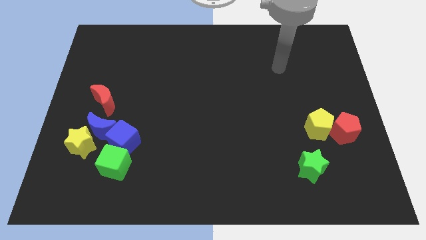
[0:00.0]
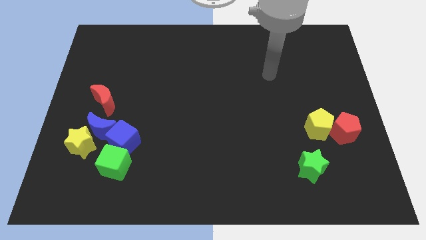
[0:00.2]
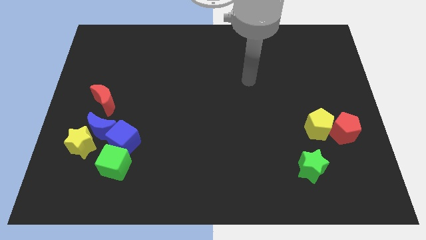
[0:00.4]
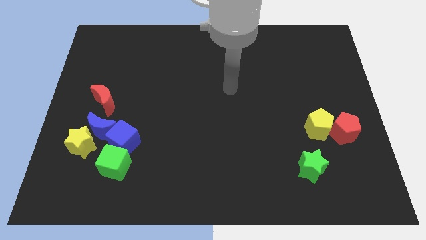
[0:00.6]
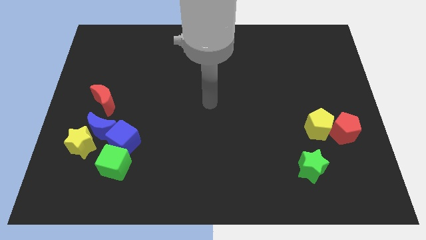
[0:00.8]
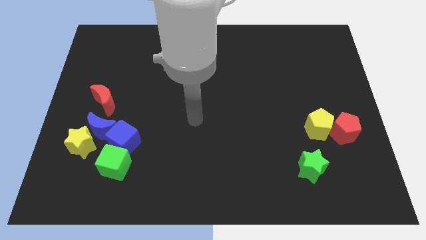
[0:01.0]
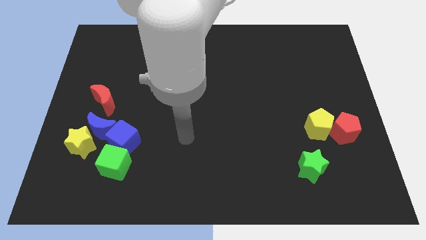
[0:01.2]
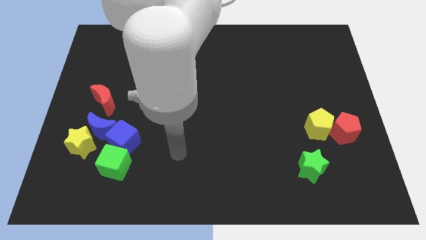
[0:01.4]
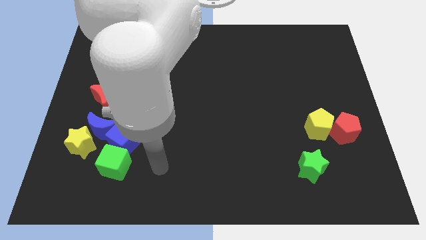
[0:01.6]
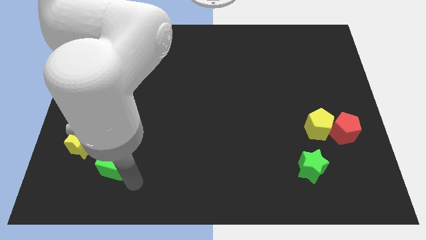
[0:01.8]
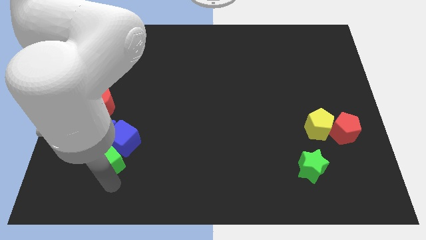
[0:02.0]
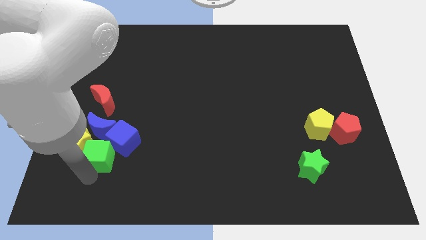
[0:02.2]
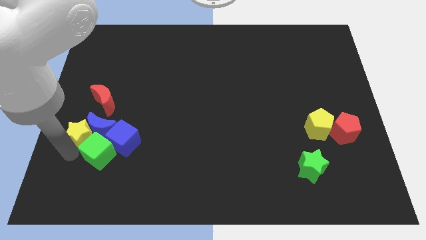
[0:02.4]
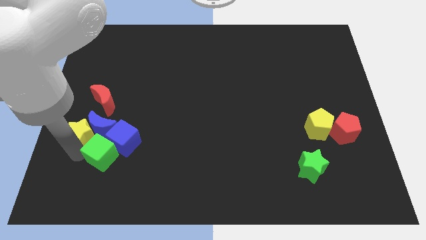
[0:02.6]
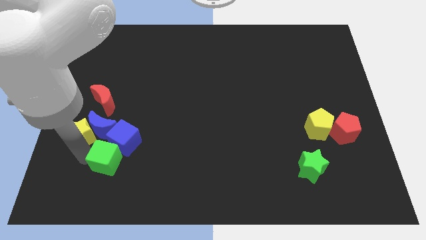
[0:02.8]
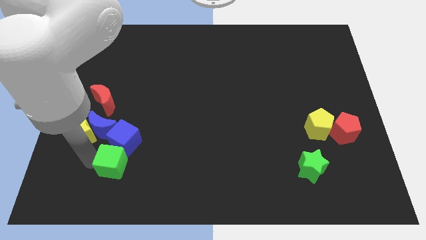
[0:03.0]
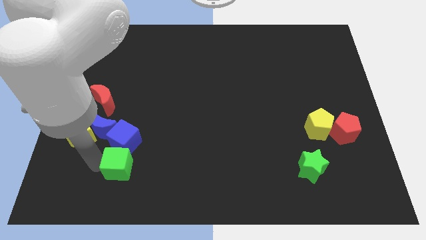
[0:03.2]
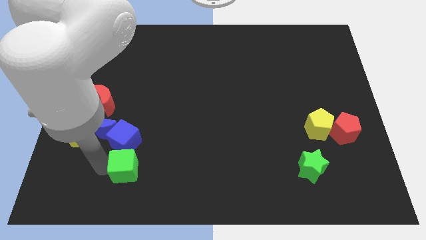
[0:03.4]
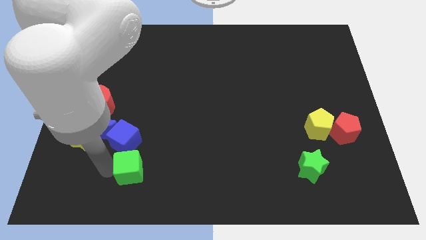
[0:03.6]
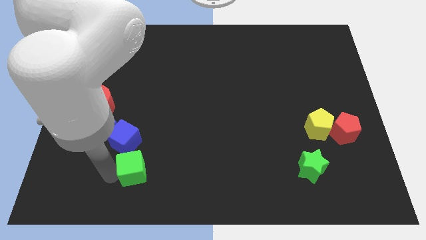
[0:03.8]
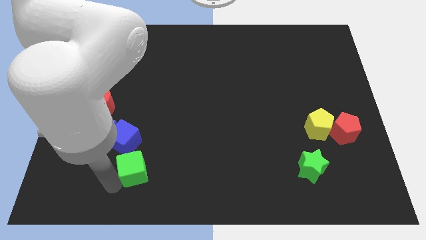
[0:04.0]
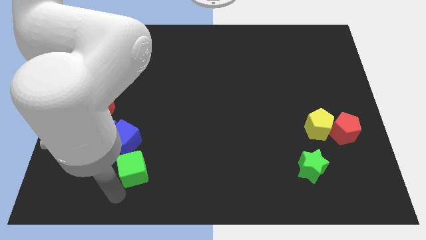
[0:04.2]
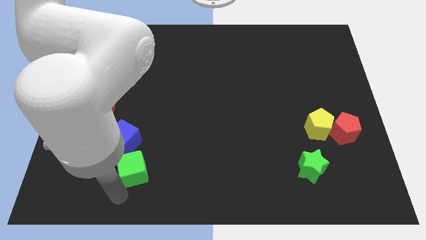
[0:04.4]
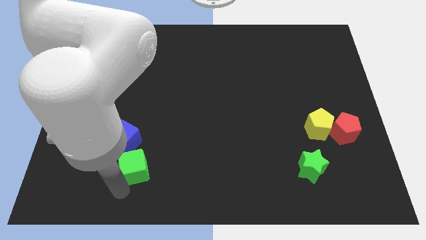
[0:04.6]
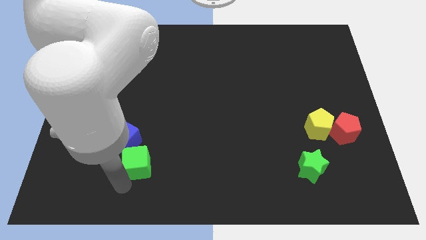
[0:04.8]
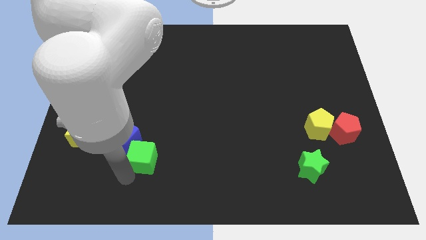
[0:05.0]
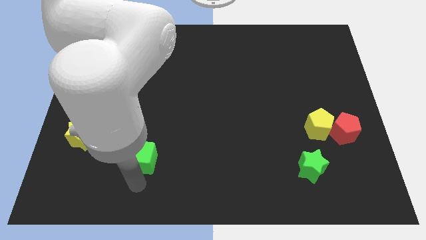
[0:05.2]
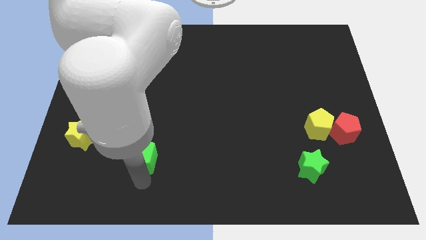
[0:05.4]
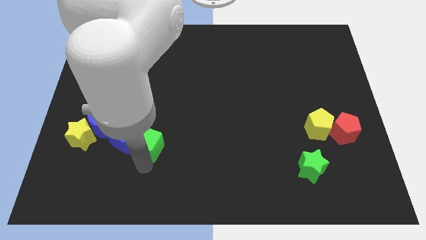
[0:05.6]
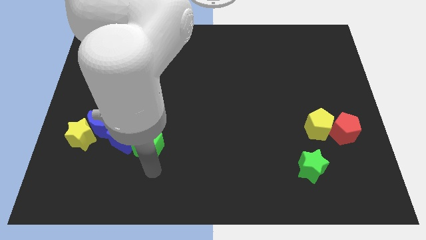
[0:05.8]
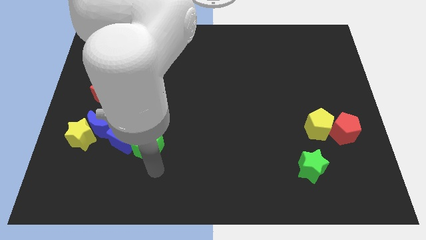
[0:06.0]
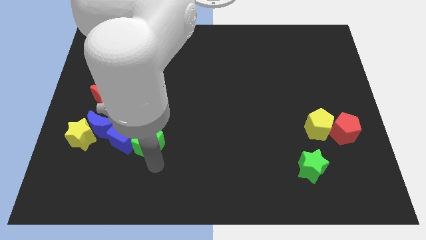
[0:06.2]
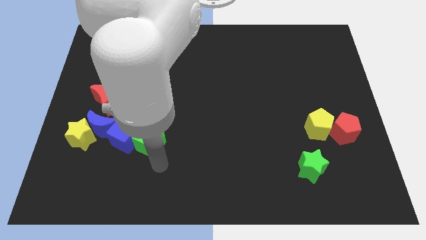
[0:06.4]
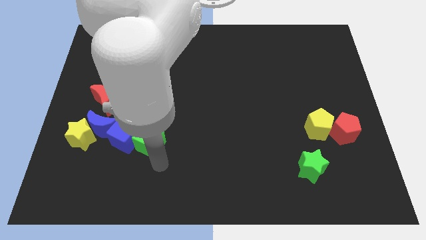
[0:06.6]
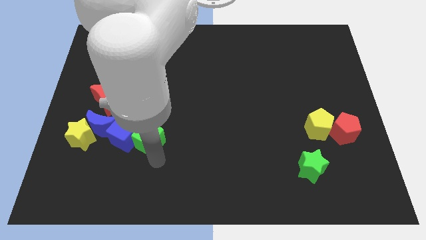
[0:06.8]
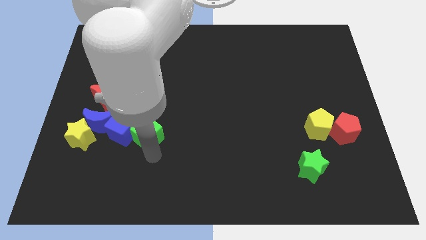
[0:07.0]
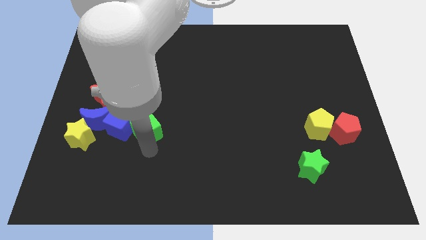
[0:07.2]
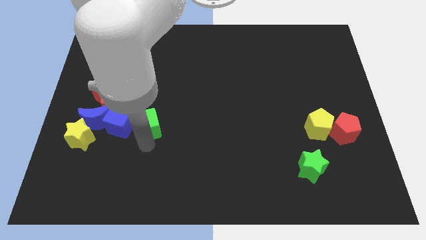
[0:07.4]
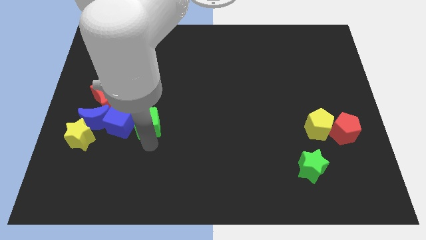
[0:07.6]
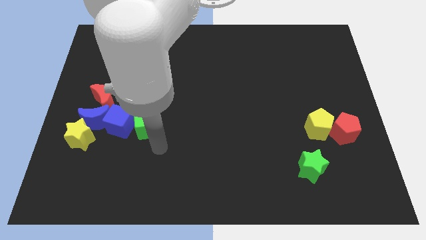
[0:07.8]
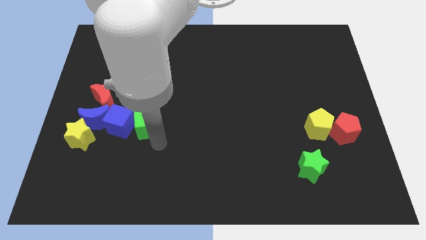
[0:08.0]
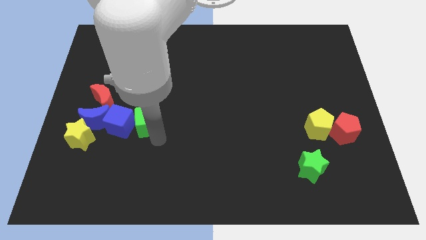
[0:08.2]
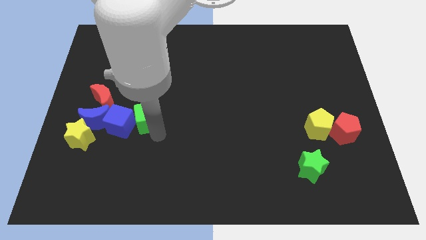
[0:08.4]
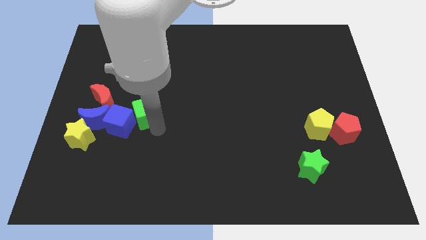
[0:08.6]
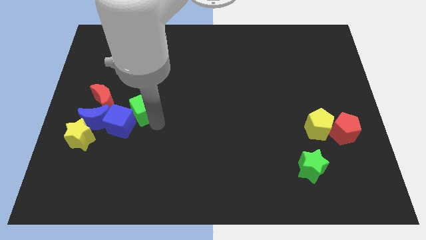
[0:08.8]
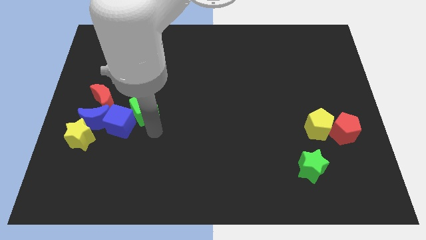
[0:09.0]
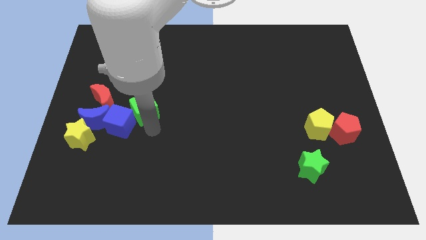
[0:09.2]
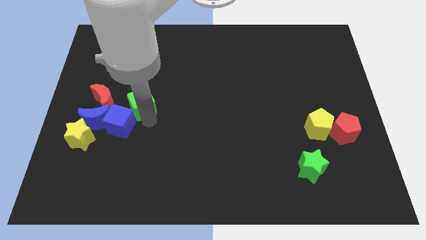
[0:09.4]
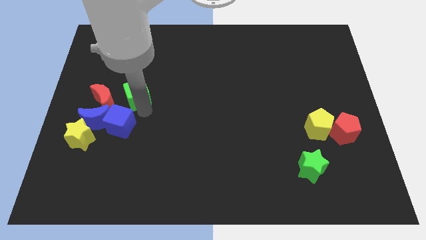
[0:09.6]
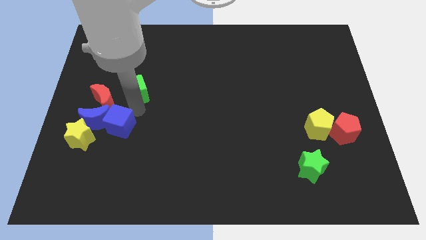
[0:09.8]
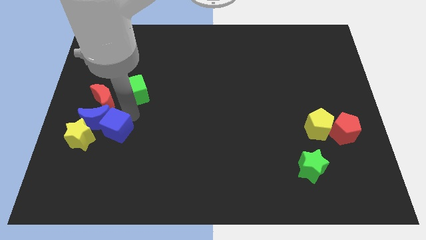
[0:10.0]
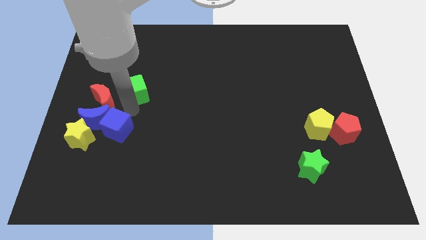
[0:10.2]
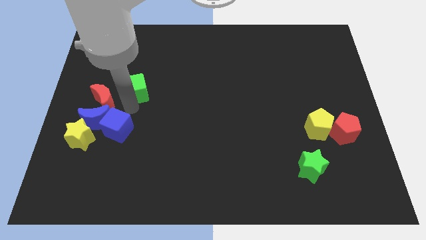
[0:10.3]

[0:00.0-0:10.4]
push the green cube upwards

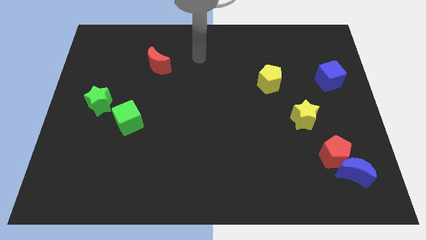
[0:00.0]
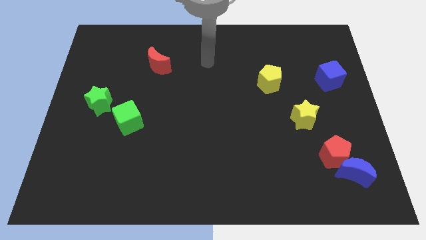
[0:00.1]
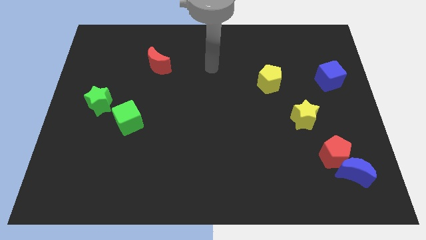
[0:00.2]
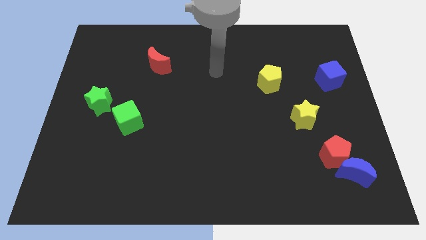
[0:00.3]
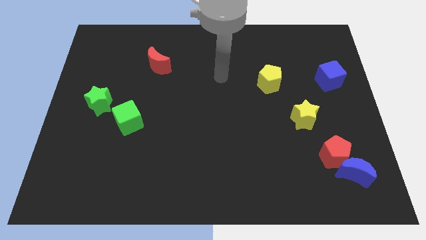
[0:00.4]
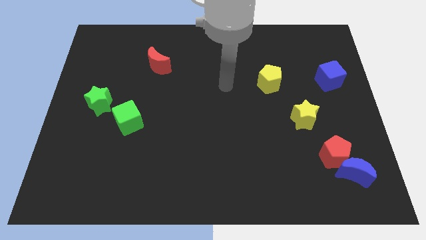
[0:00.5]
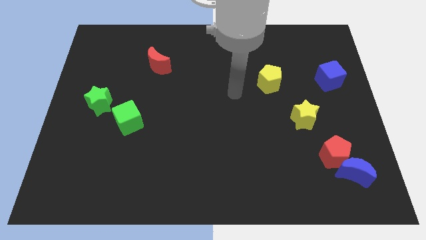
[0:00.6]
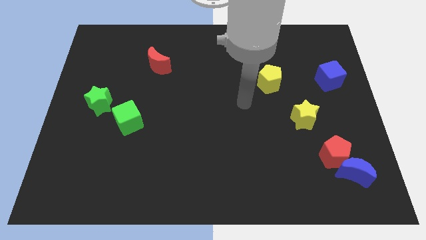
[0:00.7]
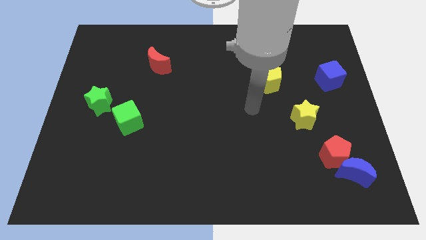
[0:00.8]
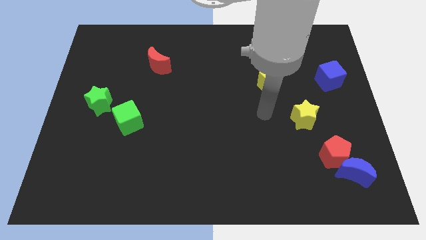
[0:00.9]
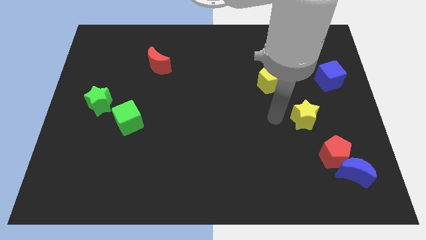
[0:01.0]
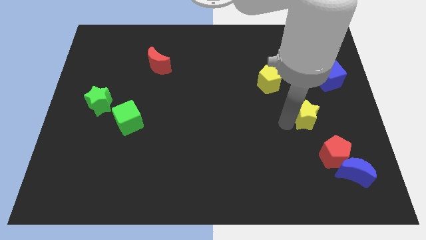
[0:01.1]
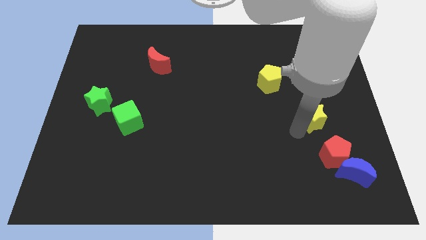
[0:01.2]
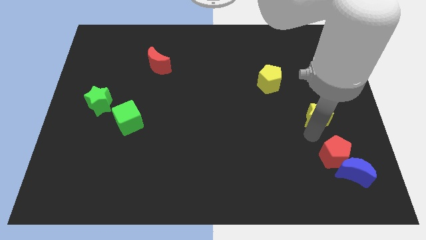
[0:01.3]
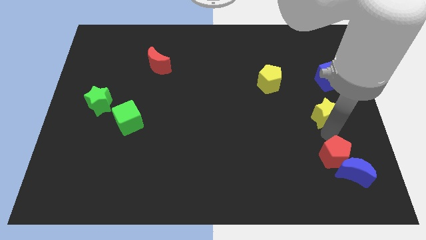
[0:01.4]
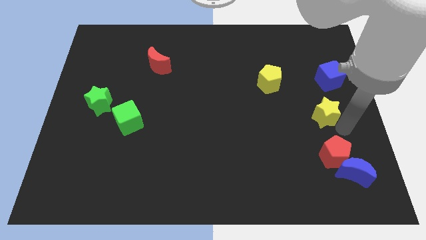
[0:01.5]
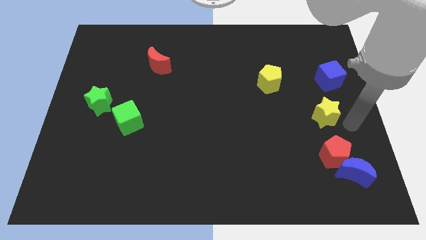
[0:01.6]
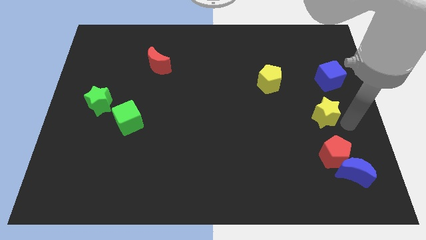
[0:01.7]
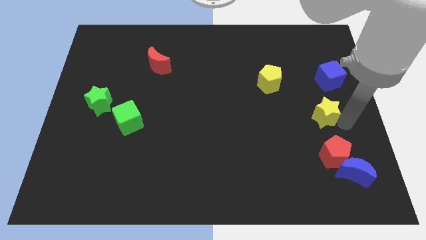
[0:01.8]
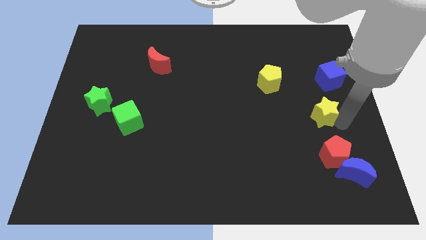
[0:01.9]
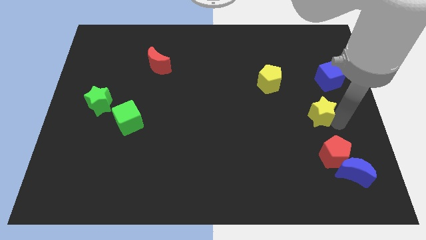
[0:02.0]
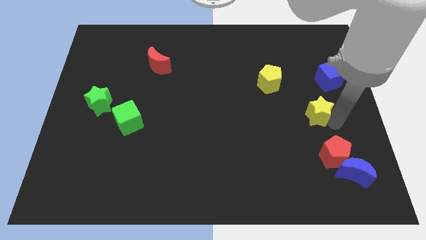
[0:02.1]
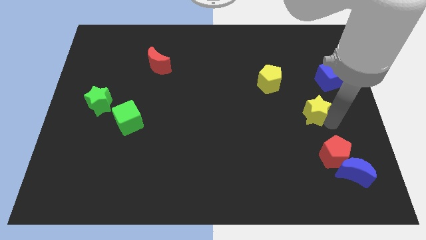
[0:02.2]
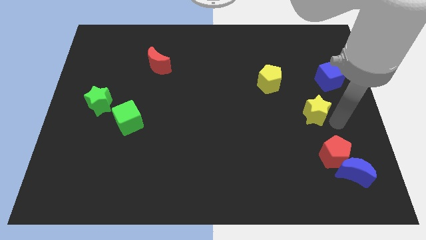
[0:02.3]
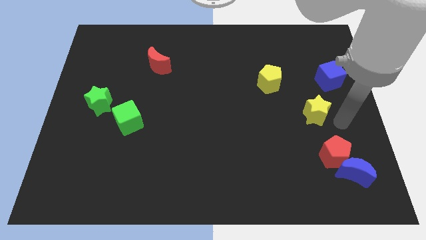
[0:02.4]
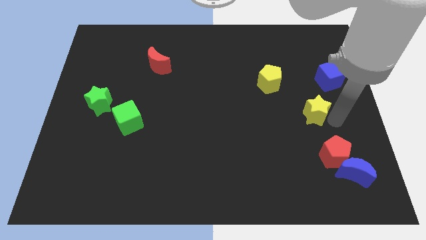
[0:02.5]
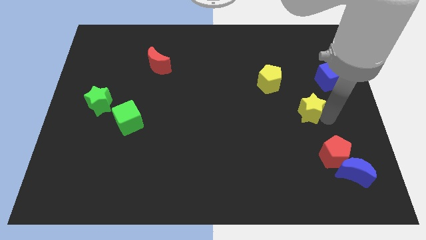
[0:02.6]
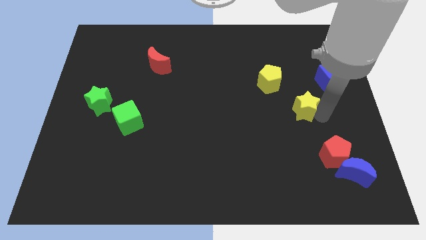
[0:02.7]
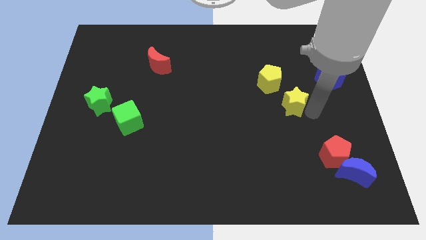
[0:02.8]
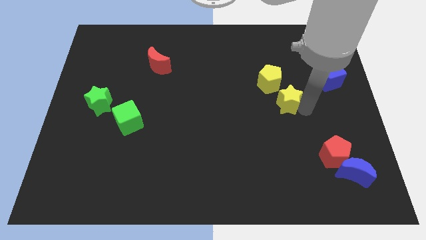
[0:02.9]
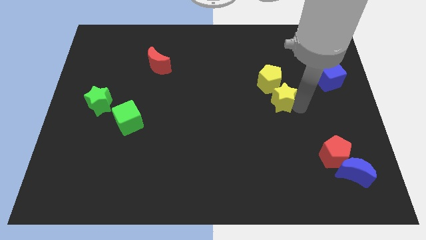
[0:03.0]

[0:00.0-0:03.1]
move the yellow star diagonally upwards and left a little
